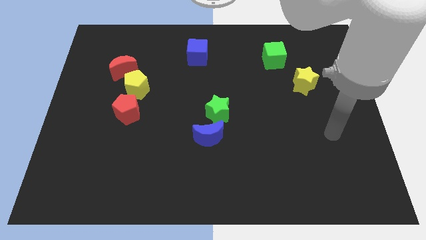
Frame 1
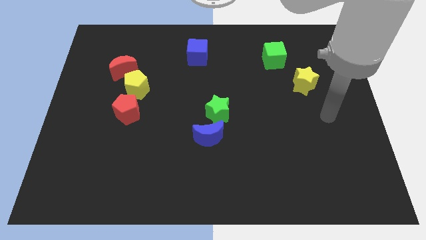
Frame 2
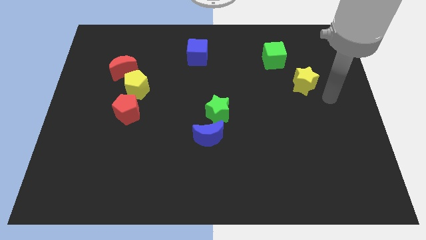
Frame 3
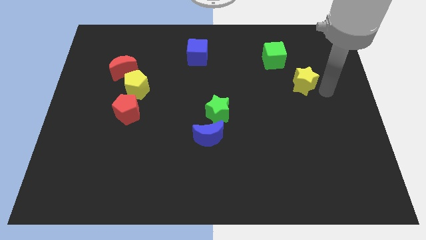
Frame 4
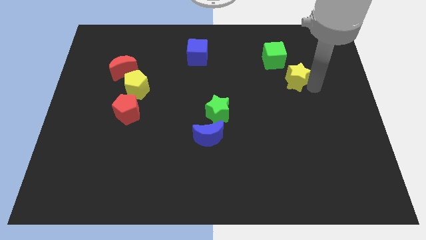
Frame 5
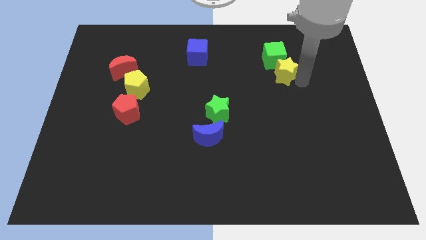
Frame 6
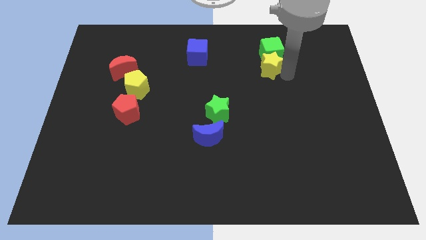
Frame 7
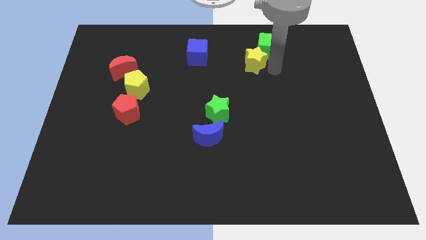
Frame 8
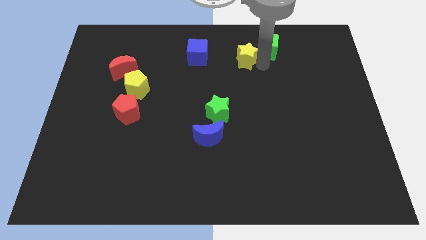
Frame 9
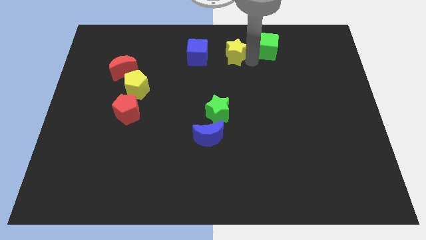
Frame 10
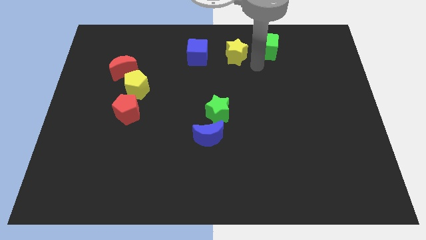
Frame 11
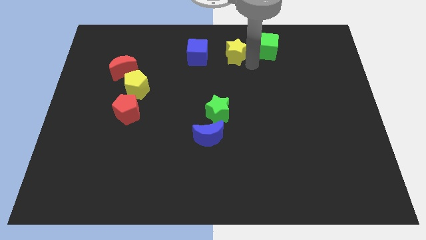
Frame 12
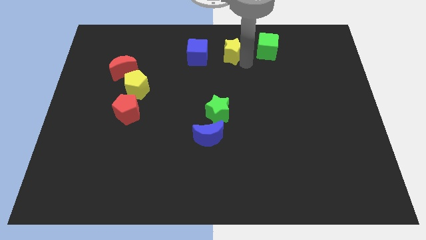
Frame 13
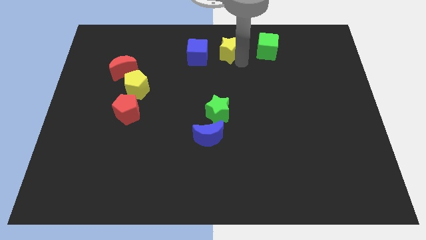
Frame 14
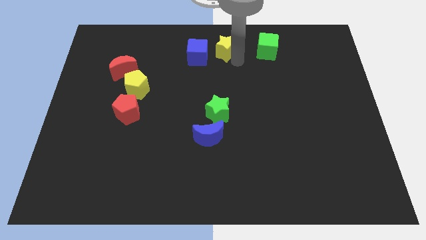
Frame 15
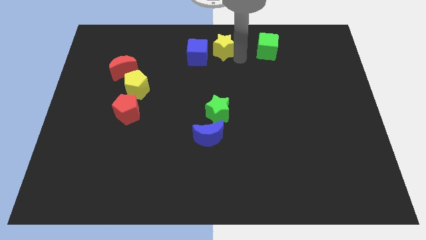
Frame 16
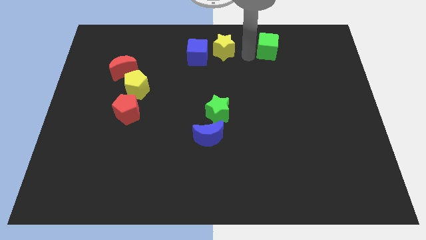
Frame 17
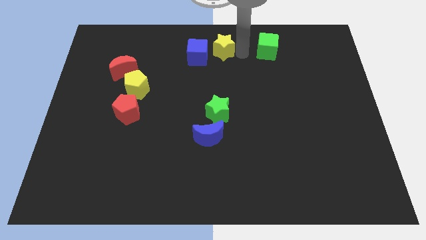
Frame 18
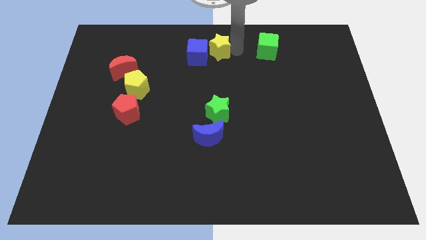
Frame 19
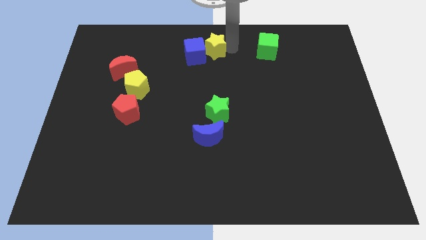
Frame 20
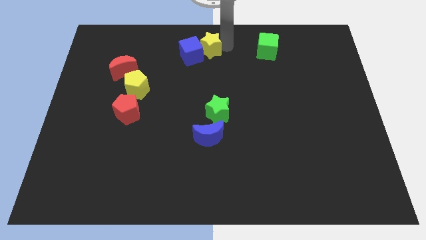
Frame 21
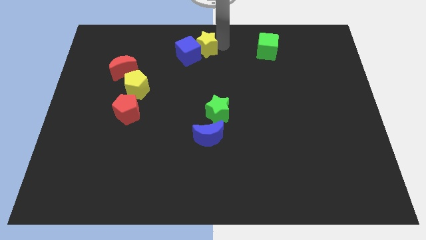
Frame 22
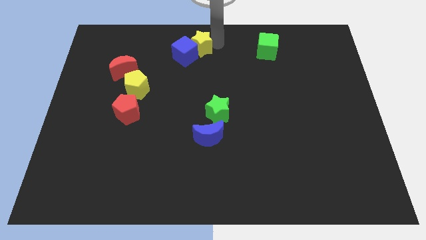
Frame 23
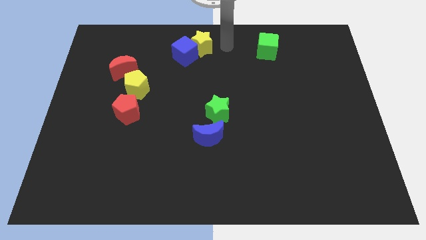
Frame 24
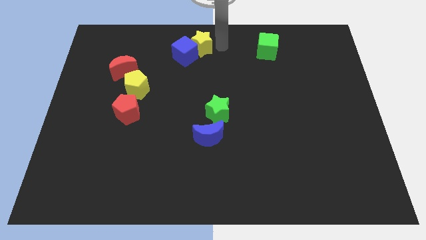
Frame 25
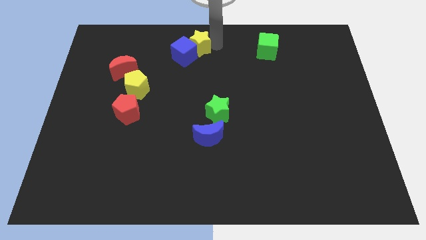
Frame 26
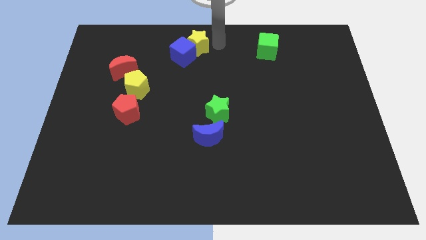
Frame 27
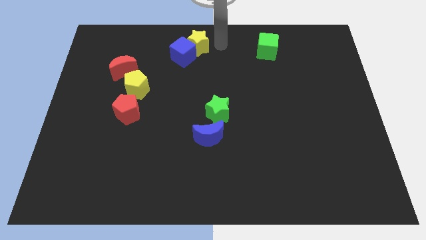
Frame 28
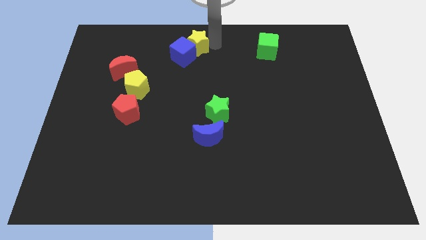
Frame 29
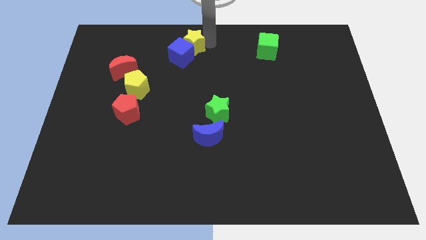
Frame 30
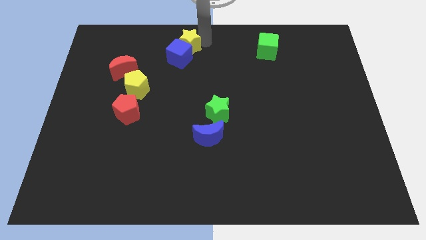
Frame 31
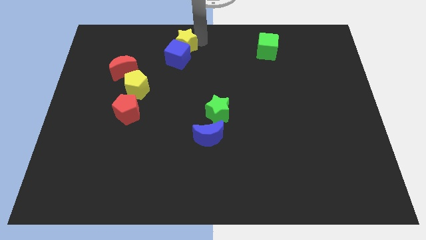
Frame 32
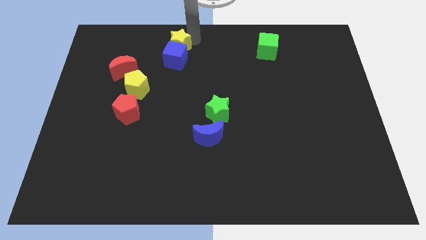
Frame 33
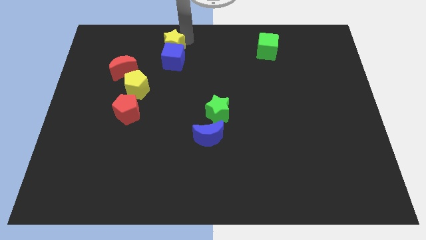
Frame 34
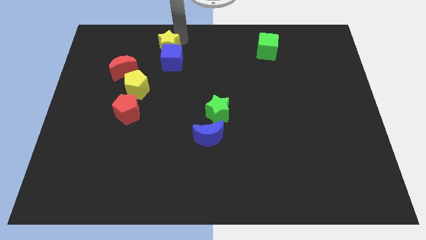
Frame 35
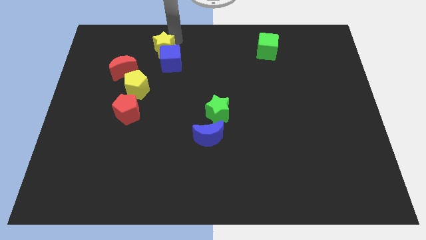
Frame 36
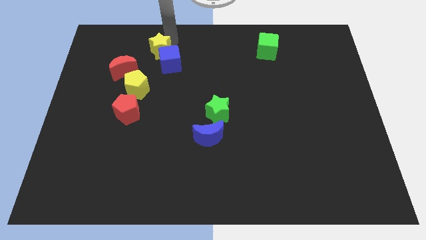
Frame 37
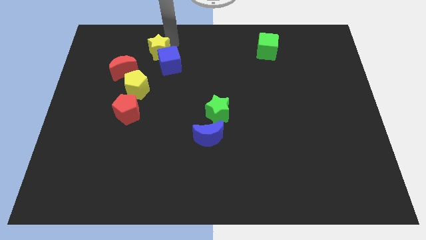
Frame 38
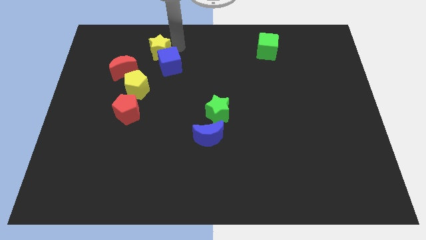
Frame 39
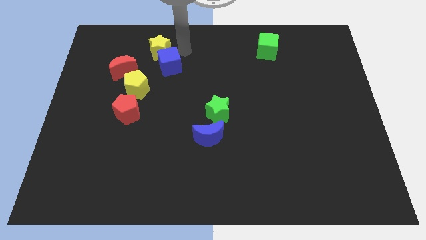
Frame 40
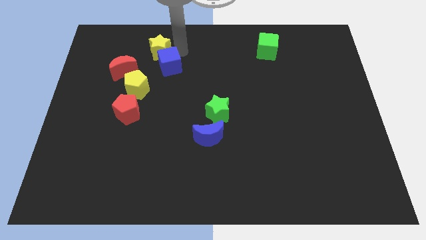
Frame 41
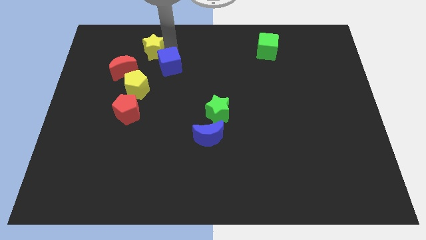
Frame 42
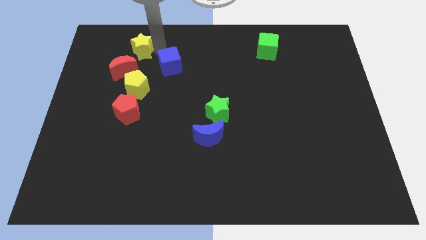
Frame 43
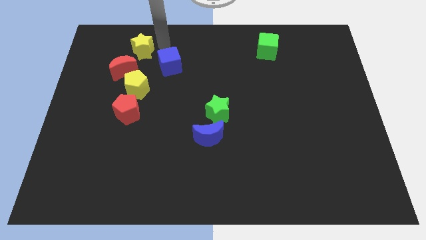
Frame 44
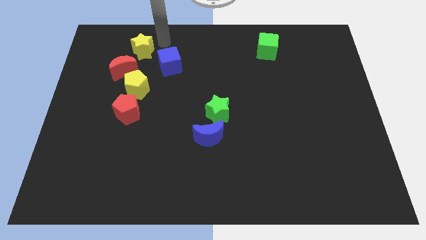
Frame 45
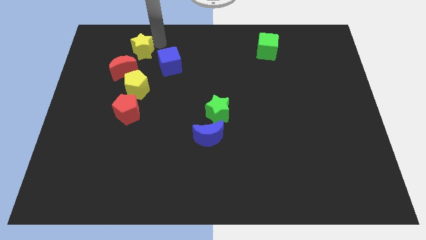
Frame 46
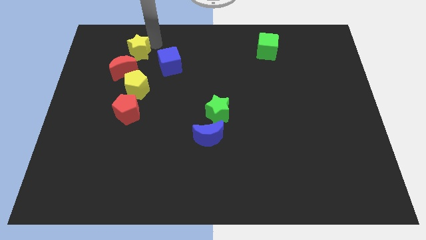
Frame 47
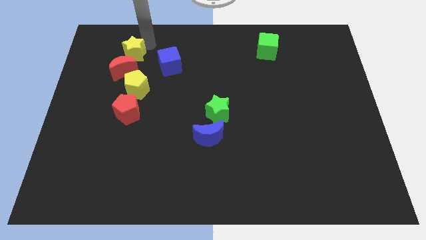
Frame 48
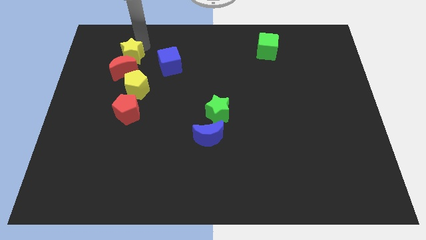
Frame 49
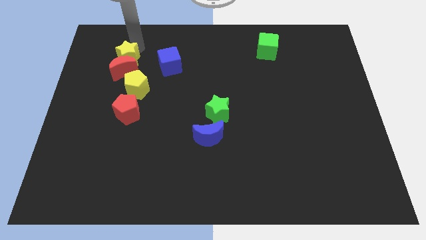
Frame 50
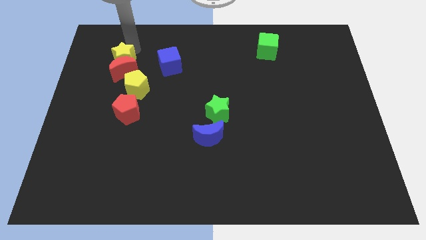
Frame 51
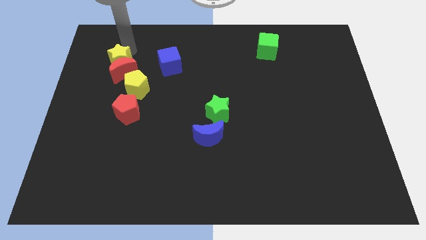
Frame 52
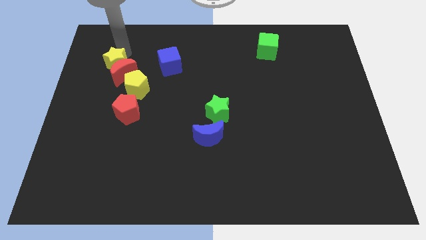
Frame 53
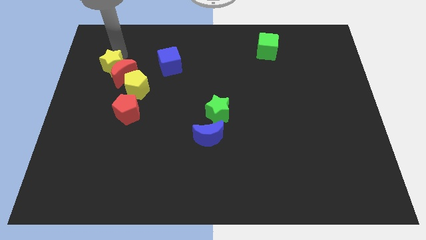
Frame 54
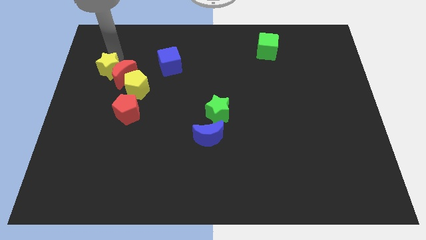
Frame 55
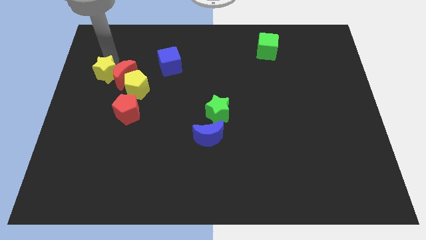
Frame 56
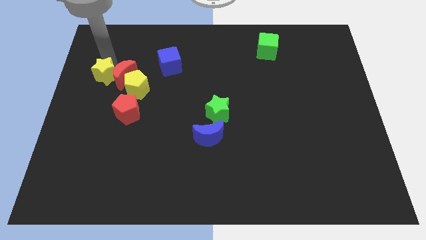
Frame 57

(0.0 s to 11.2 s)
put the yellow star left of the yellow pentagon

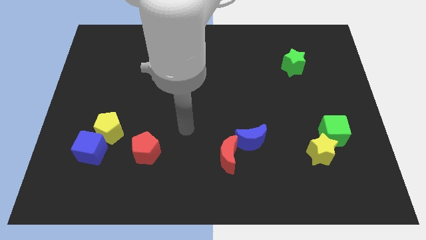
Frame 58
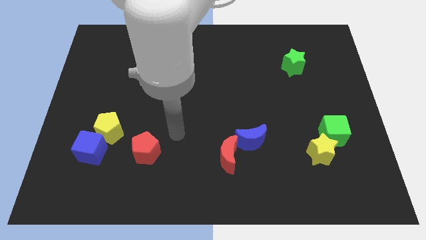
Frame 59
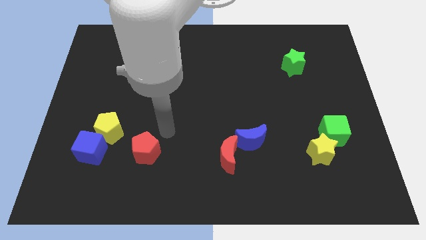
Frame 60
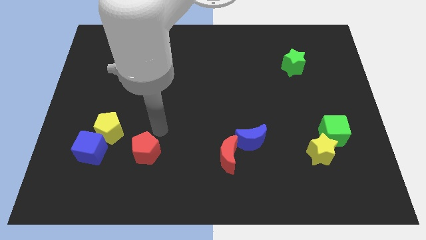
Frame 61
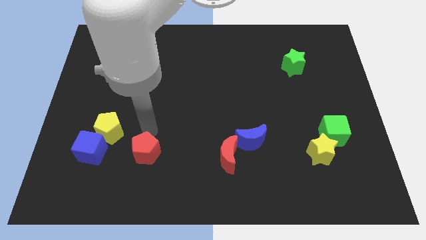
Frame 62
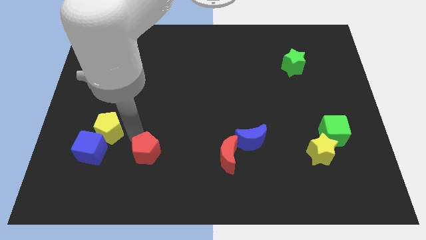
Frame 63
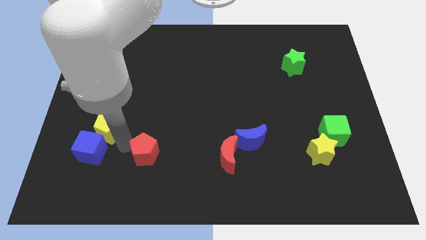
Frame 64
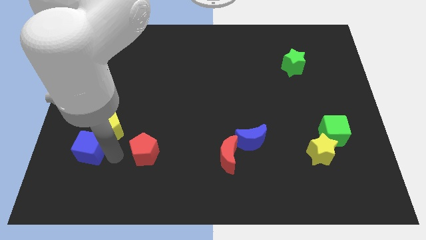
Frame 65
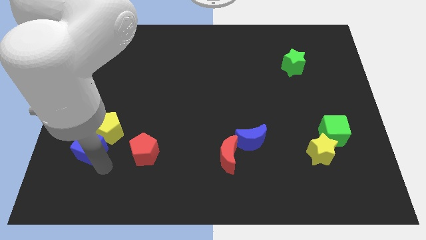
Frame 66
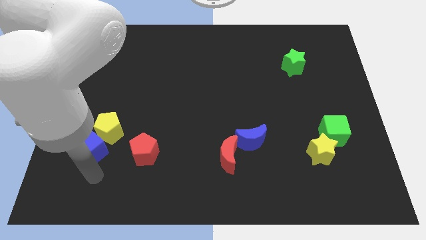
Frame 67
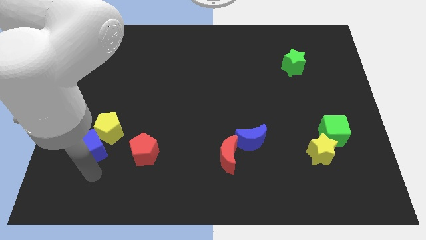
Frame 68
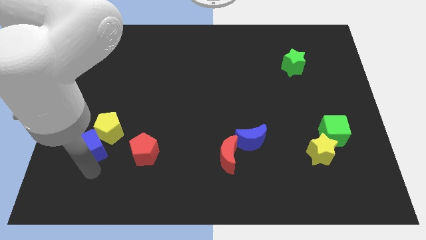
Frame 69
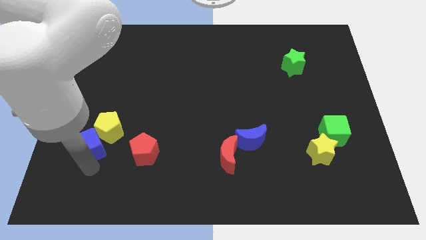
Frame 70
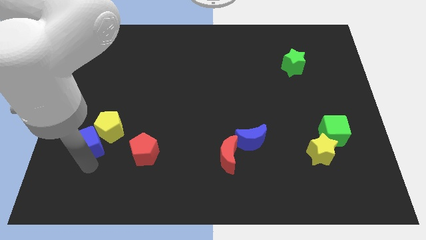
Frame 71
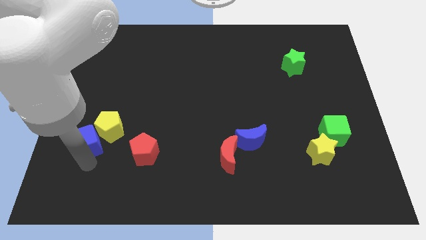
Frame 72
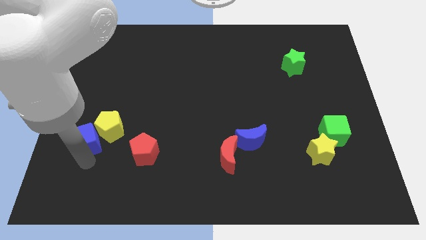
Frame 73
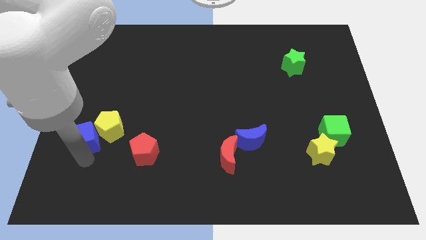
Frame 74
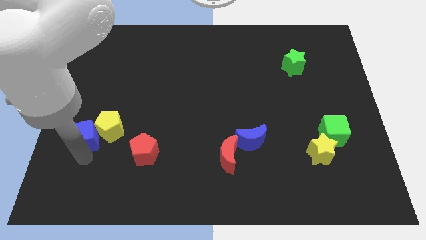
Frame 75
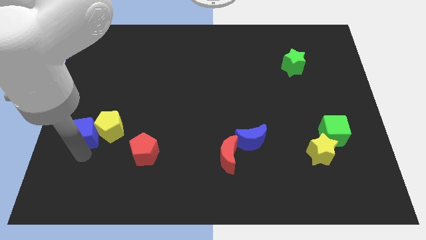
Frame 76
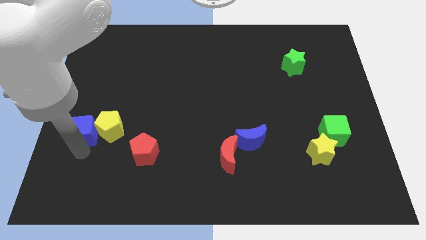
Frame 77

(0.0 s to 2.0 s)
push the blue cube to the top left side of the yellow pentagon
